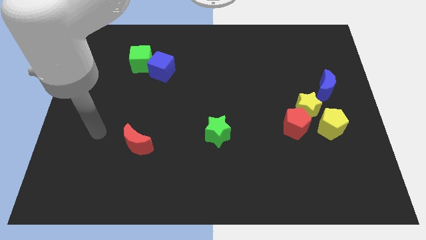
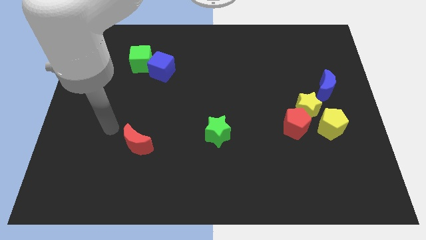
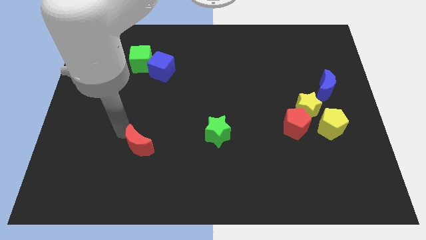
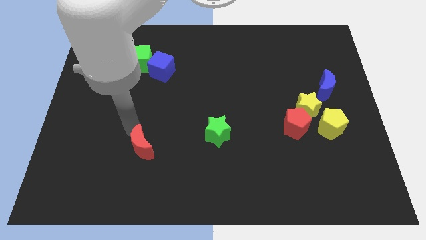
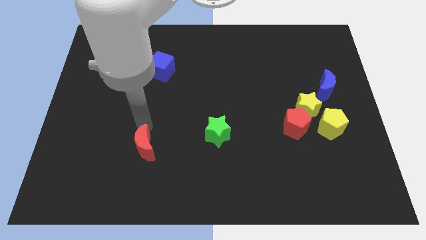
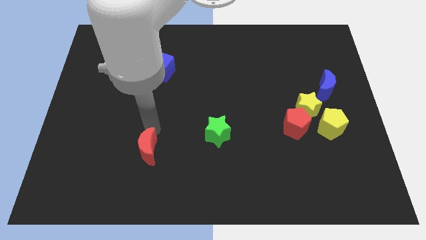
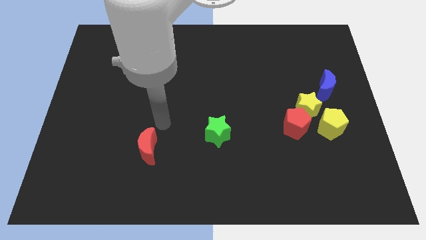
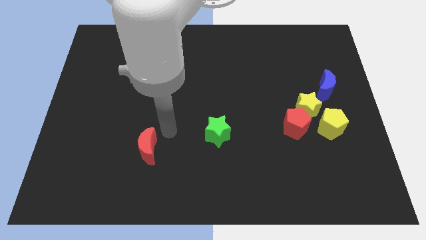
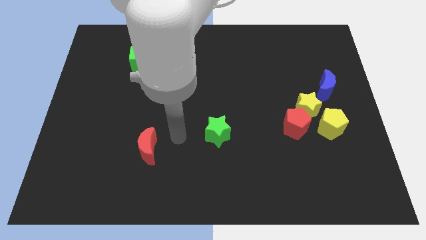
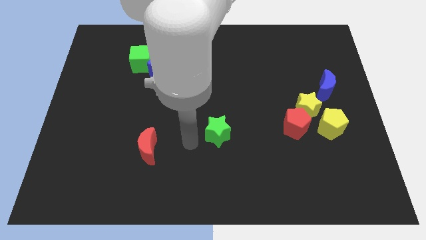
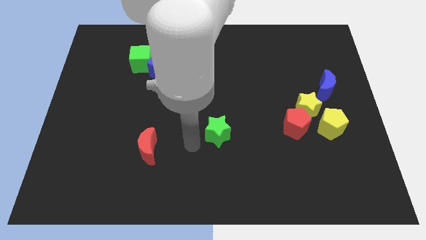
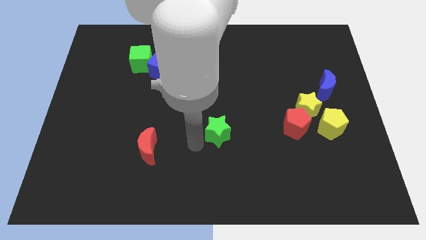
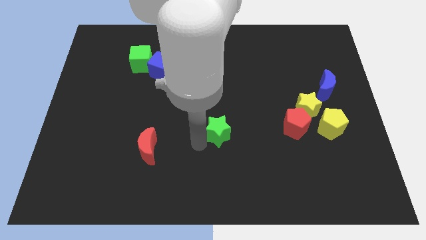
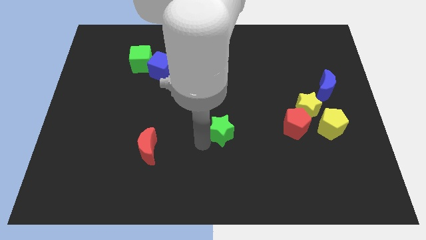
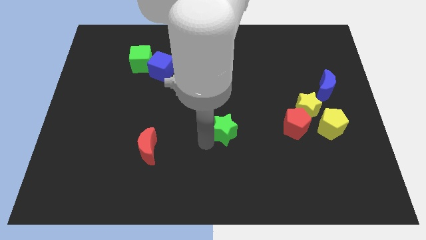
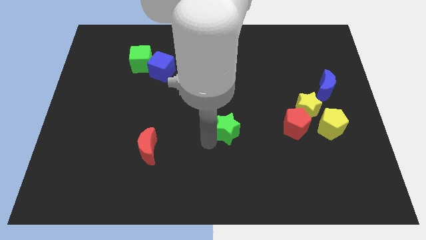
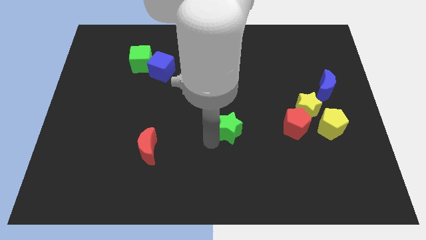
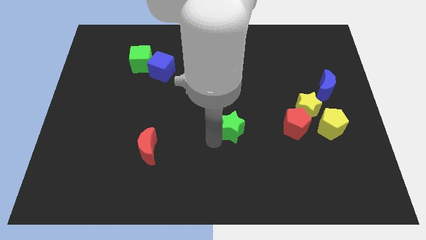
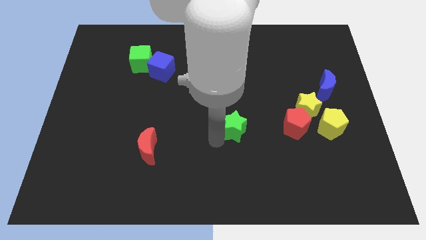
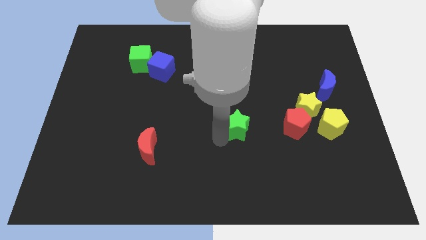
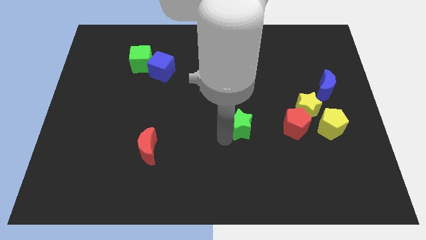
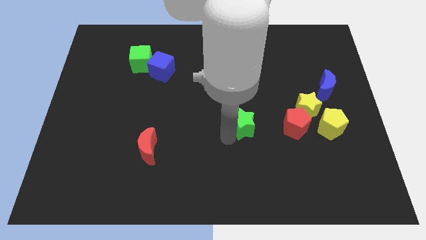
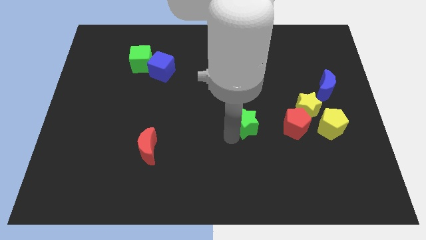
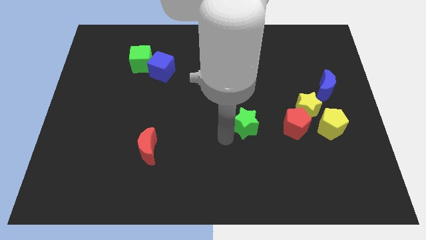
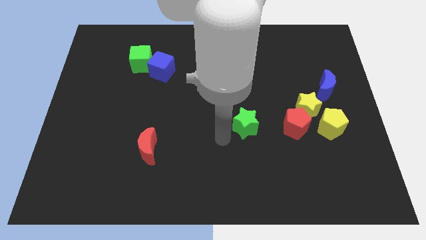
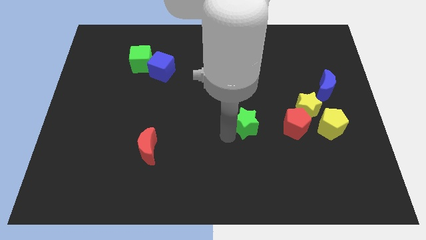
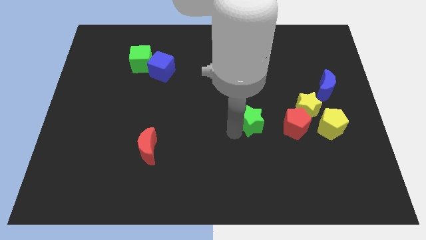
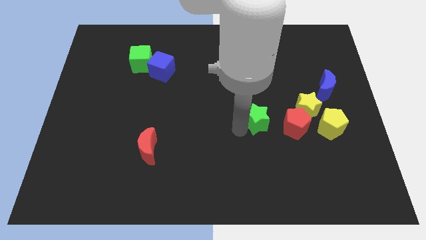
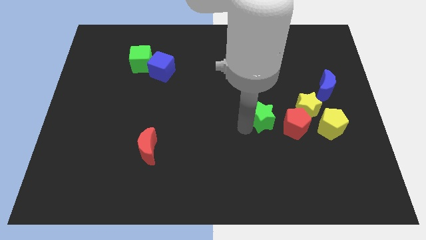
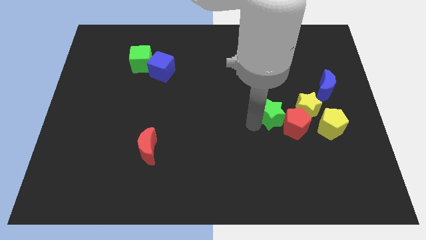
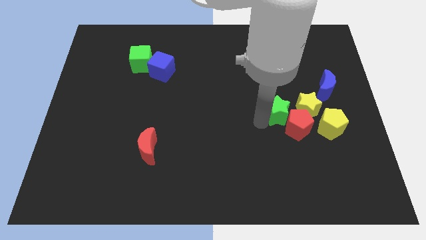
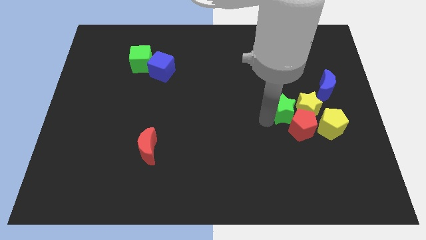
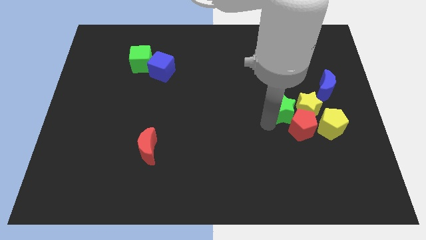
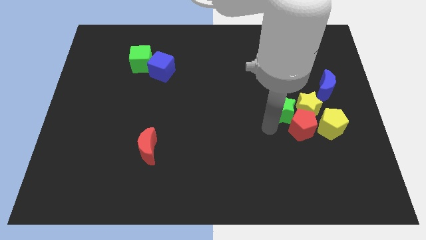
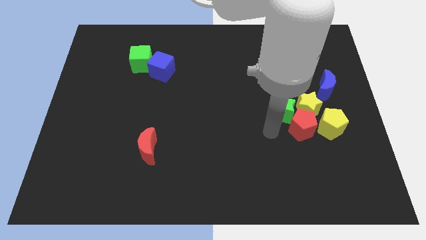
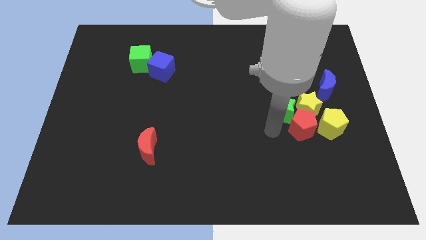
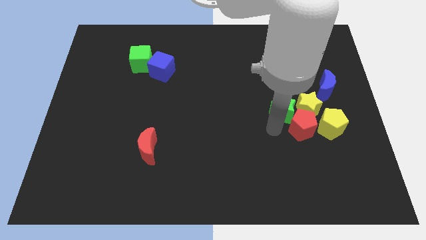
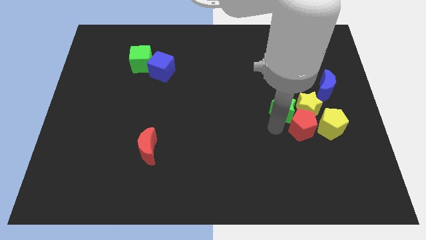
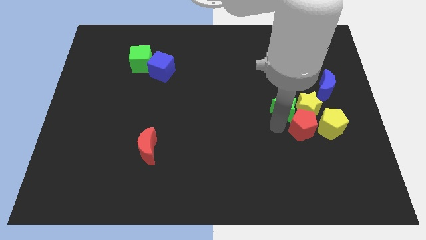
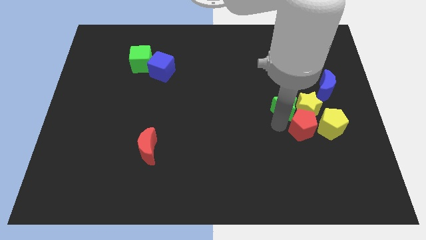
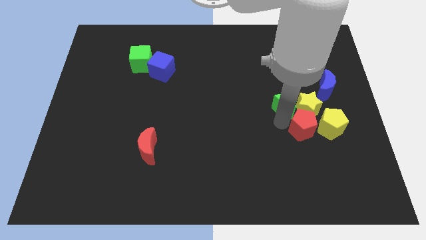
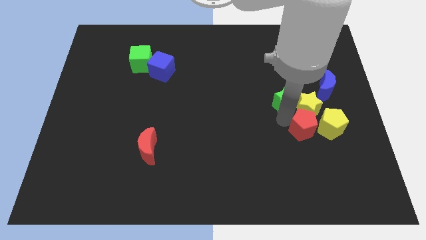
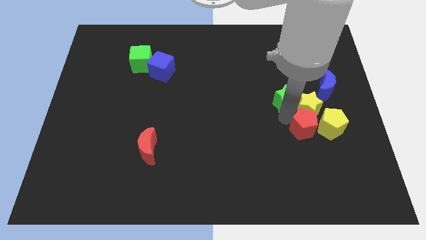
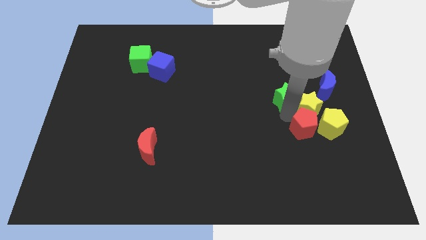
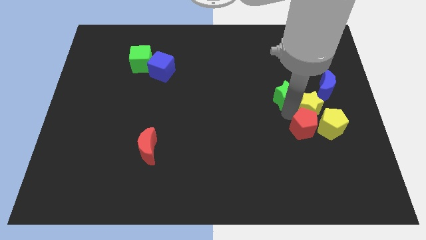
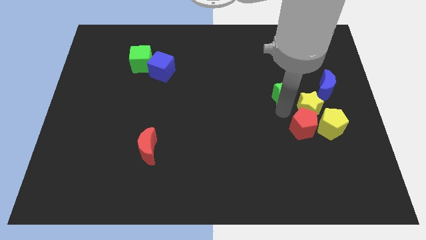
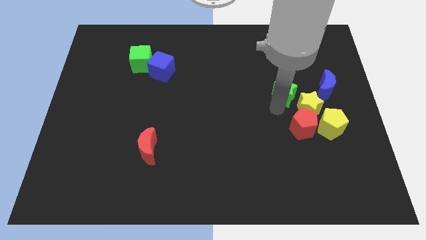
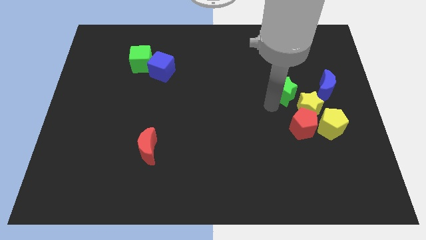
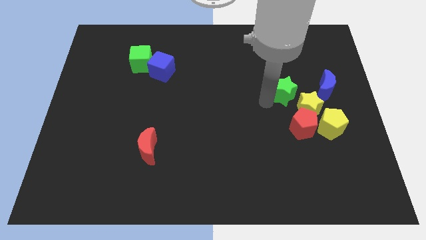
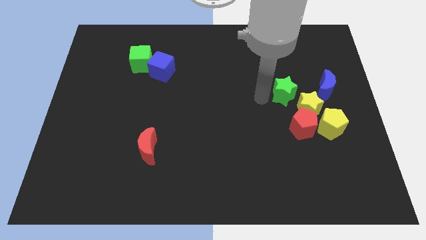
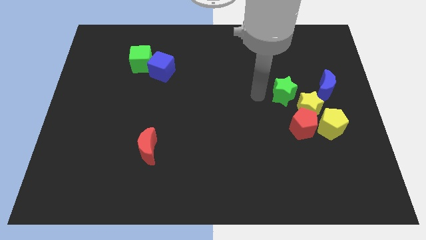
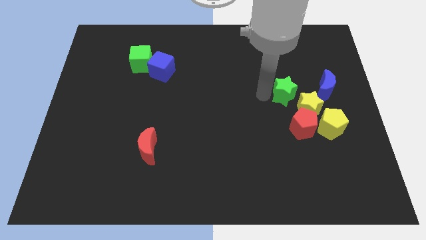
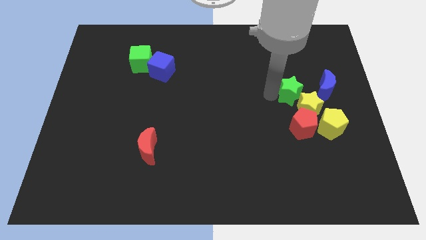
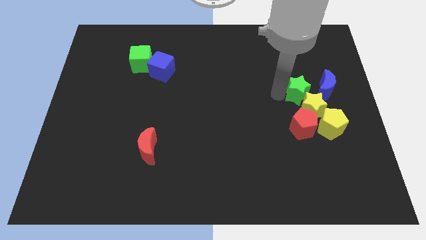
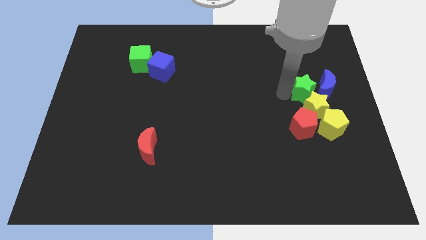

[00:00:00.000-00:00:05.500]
push the green star close to the blue moon

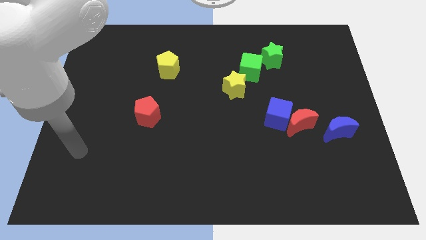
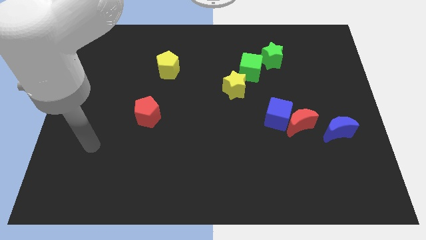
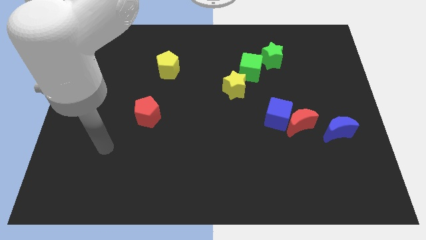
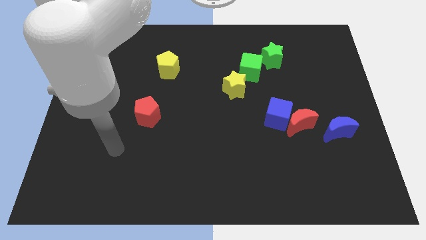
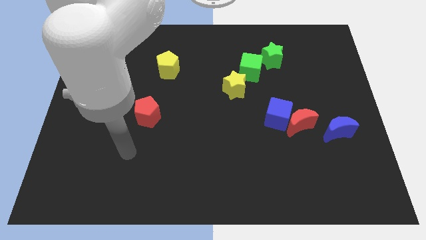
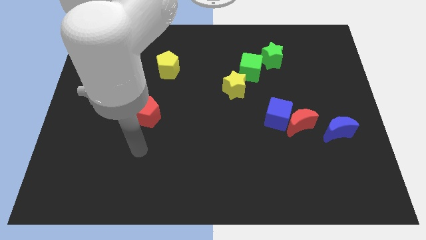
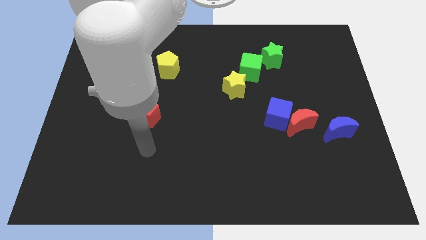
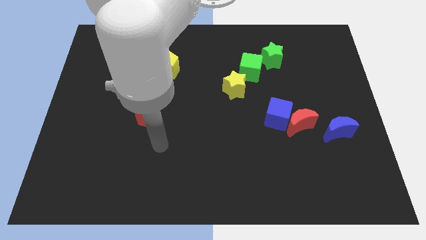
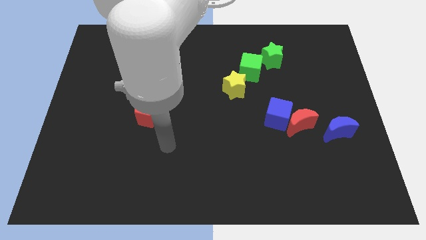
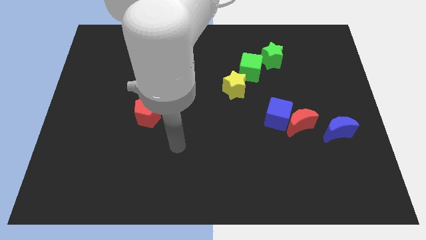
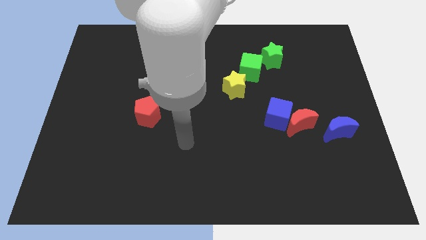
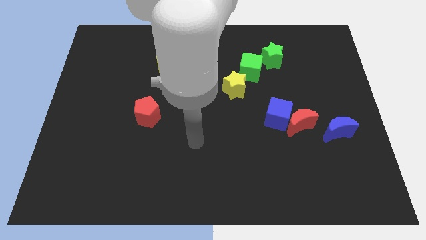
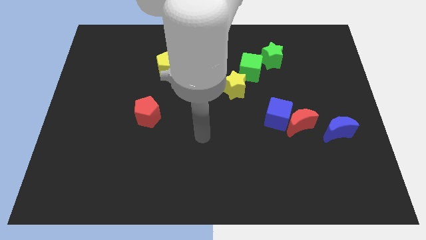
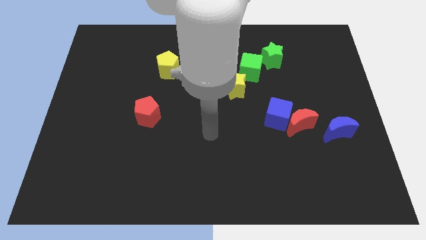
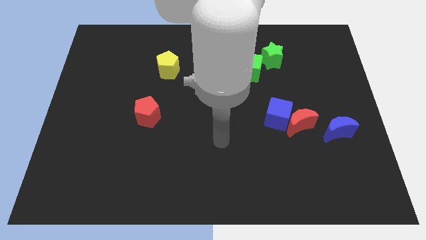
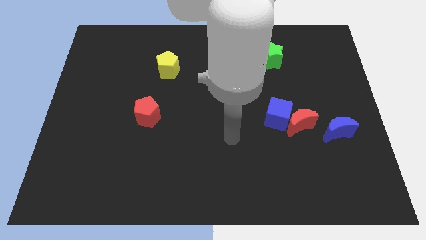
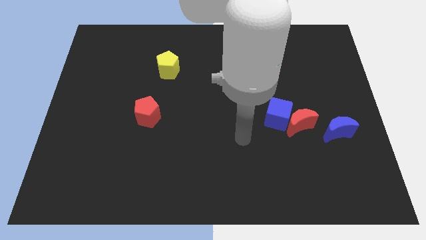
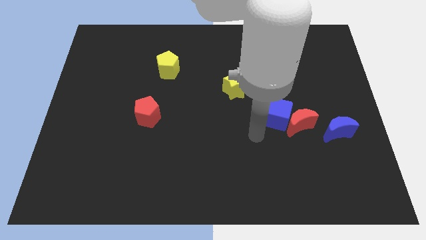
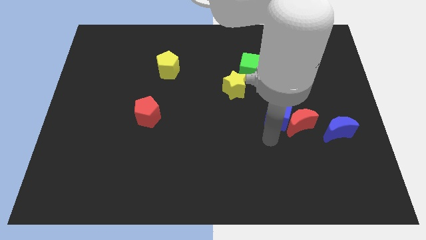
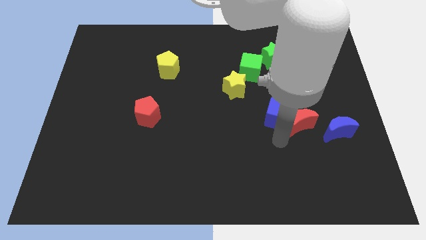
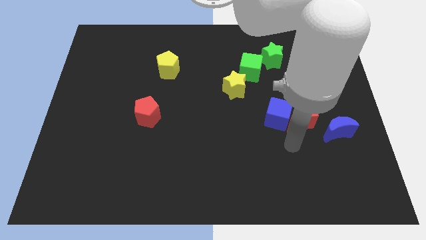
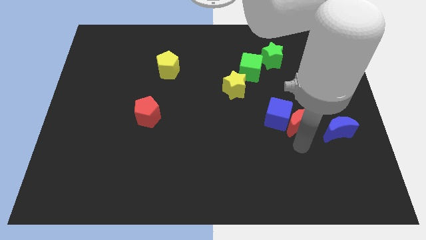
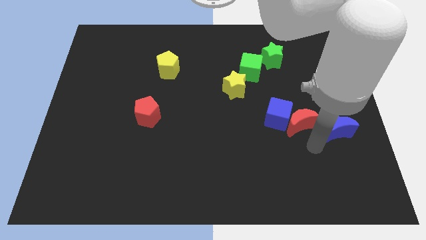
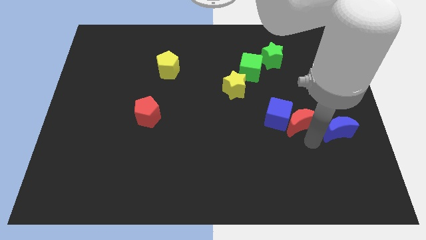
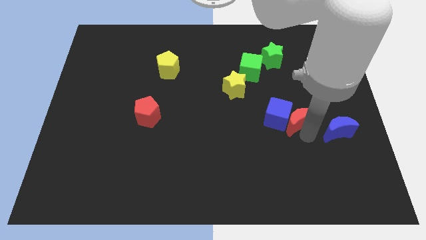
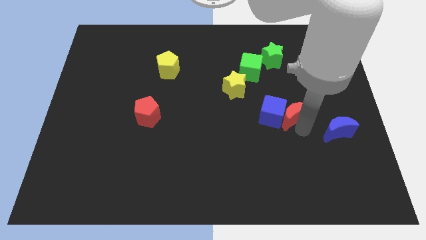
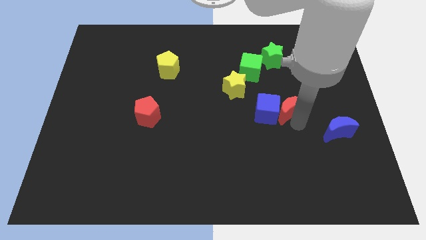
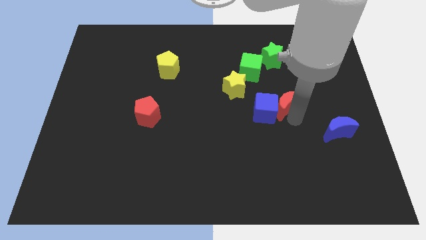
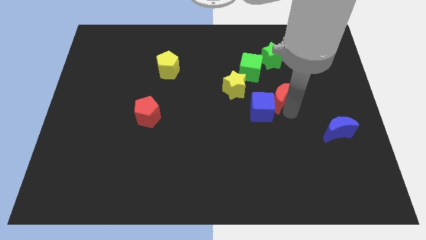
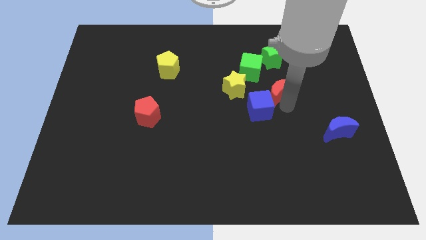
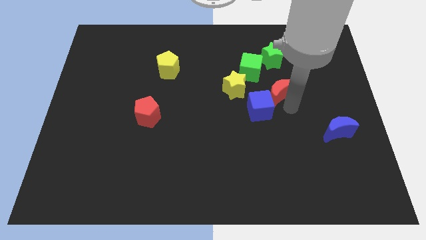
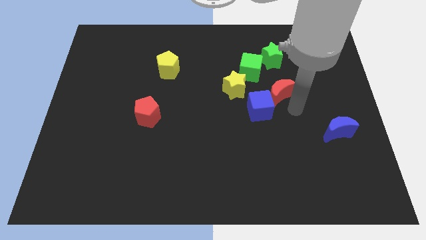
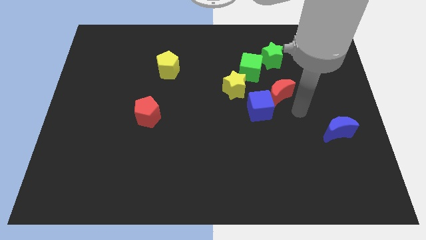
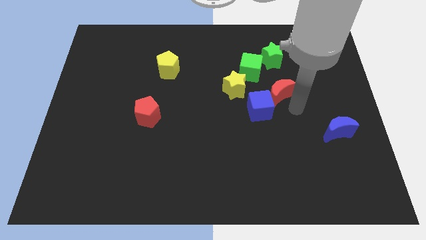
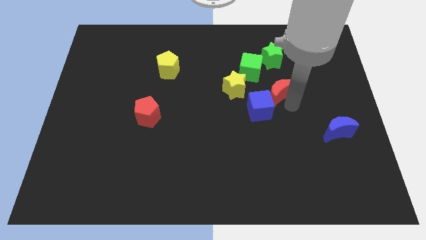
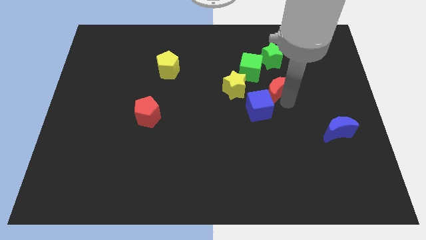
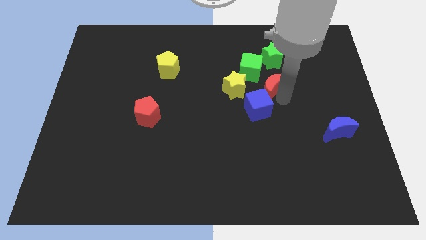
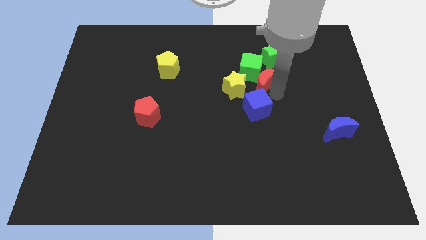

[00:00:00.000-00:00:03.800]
slide the red moon next to the green cube
